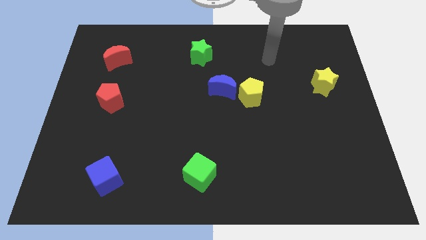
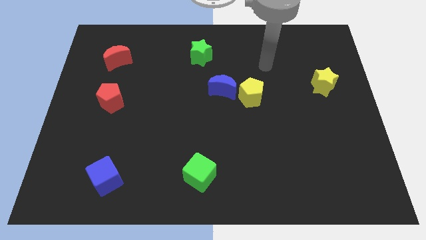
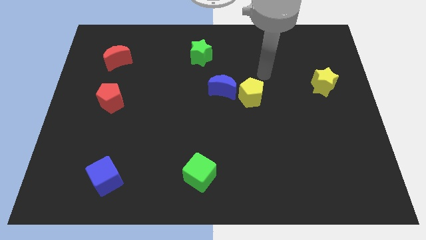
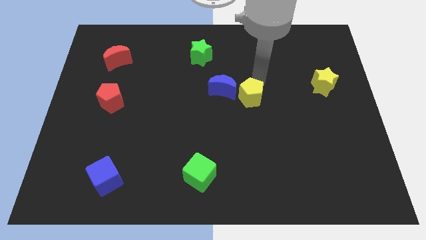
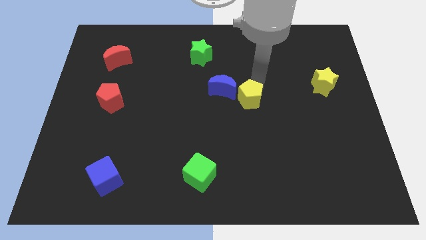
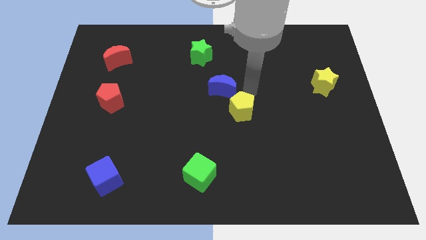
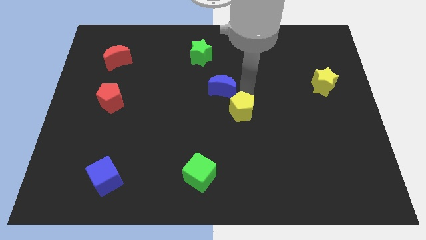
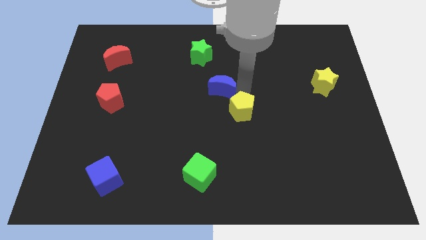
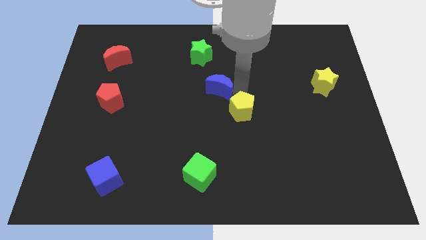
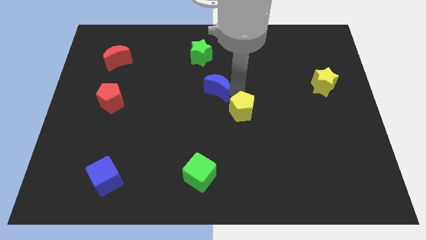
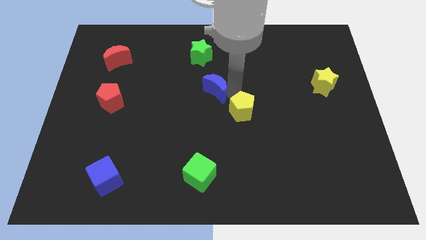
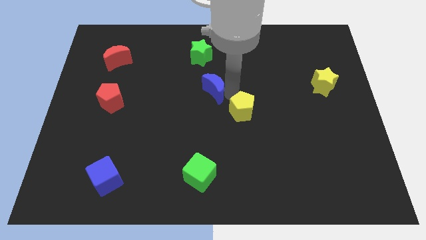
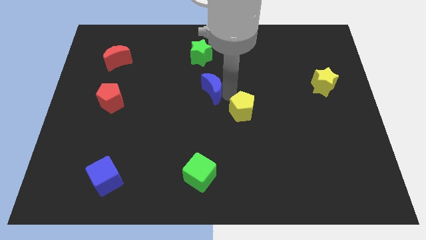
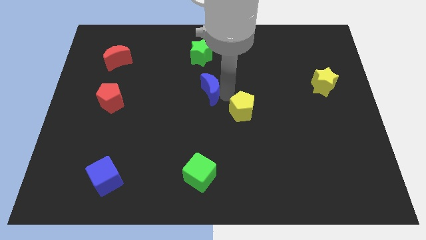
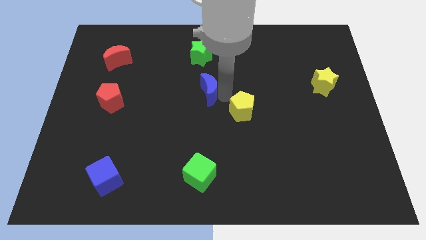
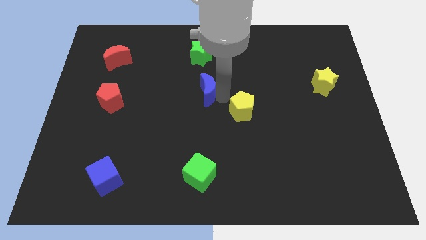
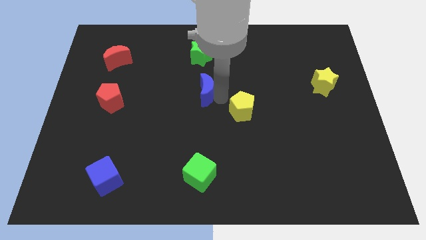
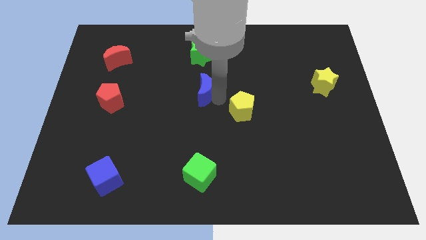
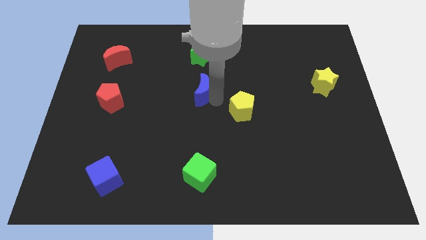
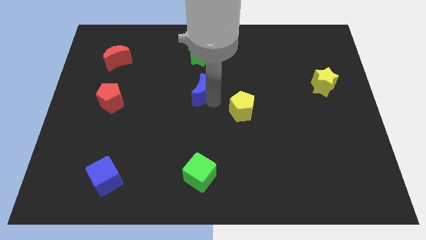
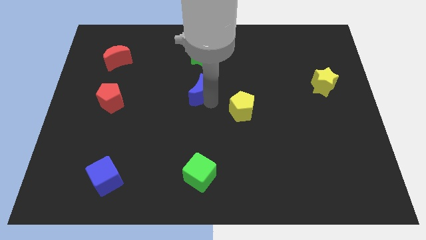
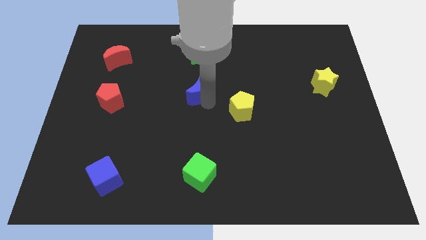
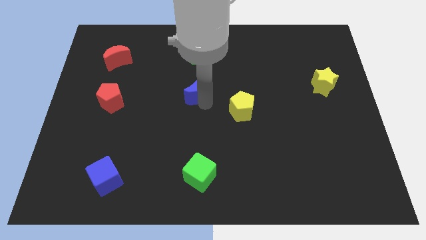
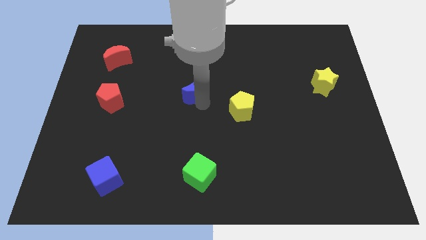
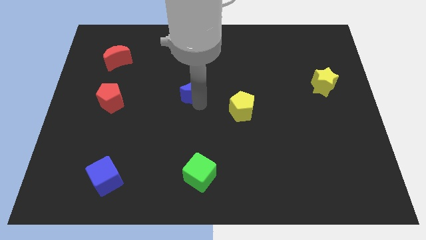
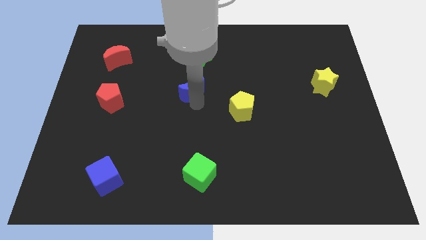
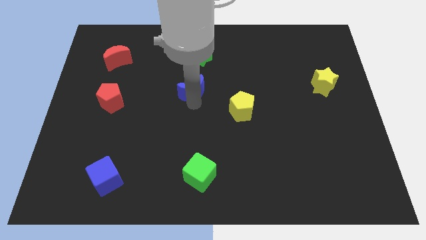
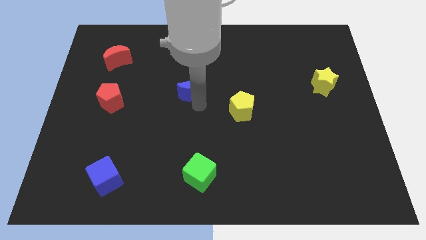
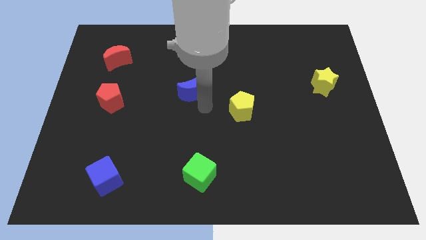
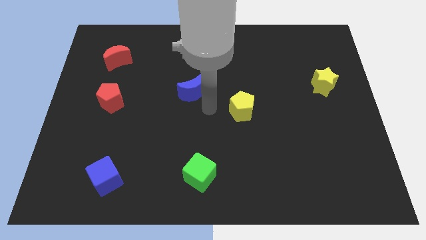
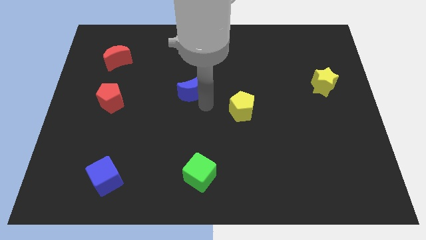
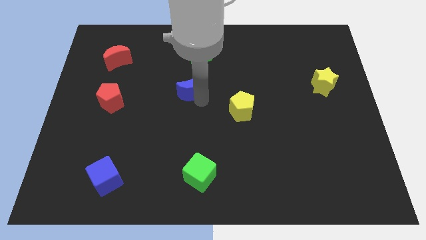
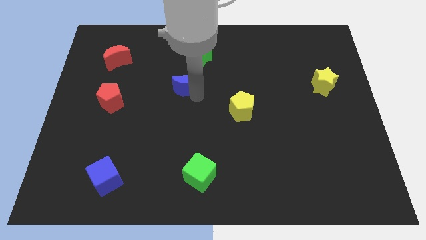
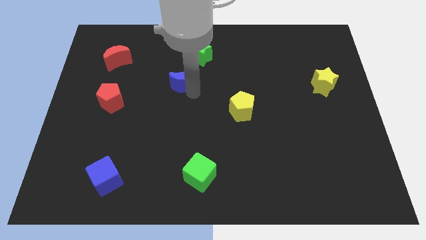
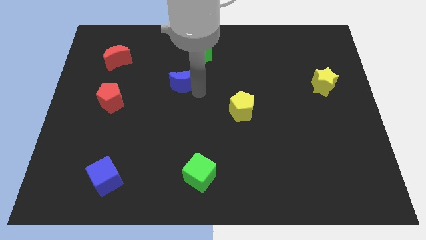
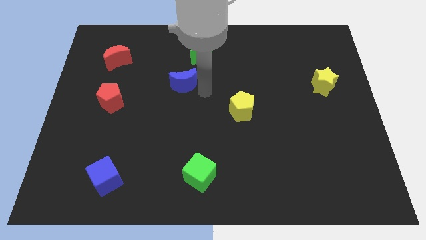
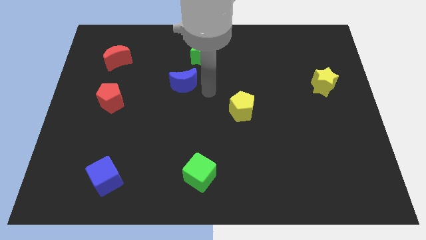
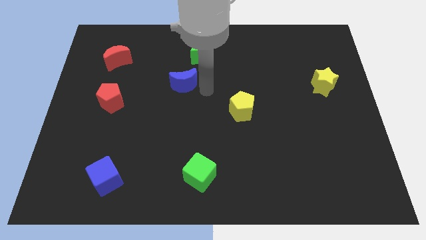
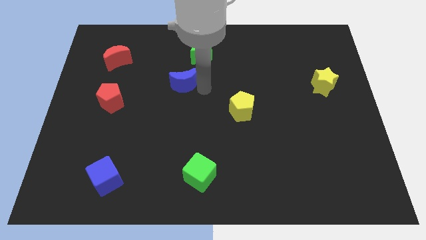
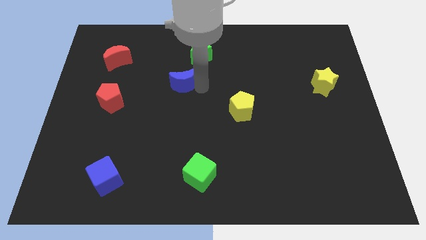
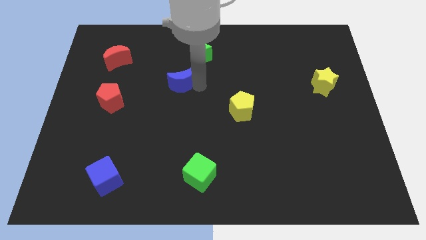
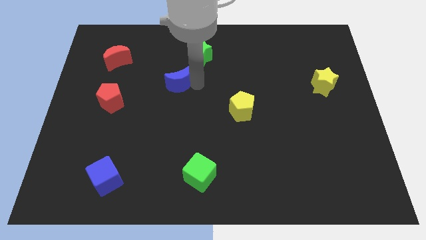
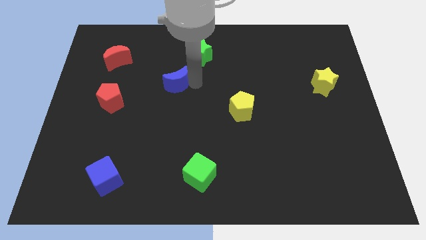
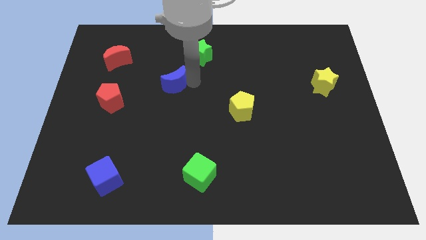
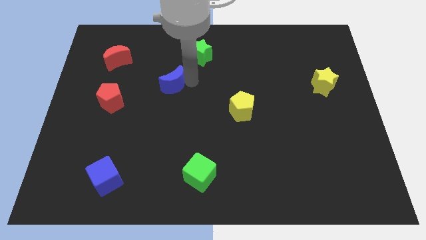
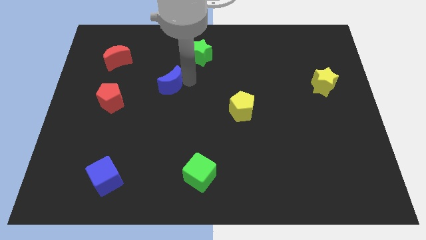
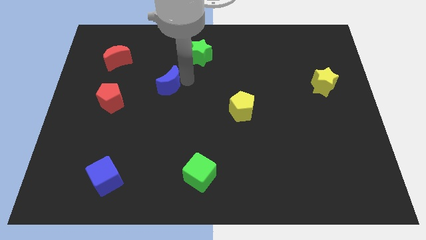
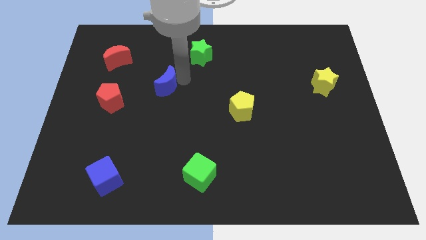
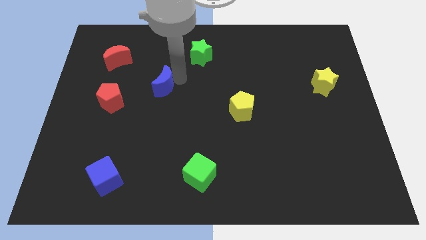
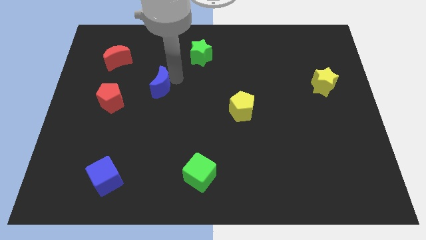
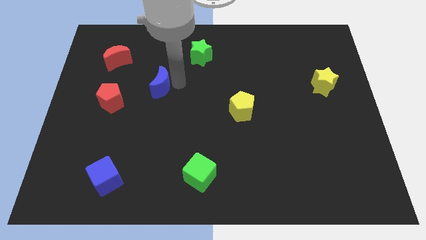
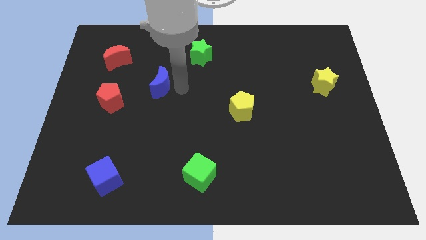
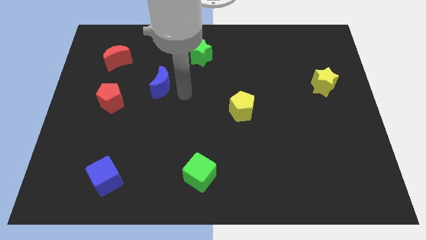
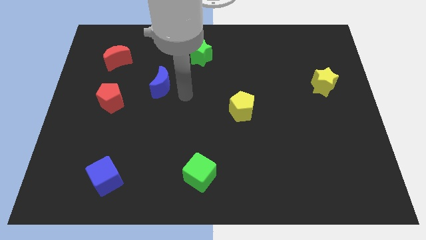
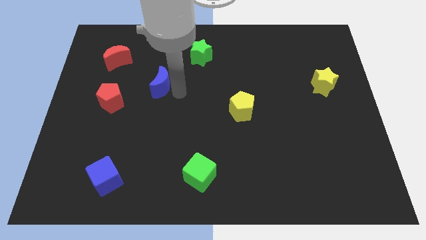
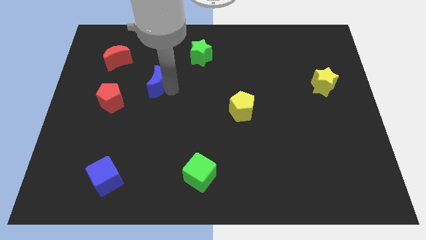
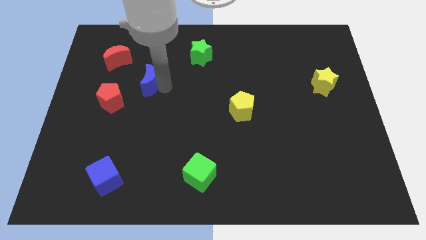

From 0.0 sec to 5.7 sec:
push the blue moon to the bottom right side of the red moon

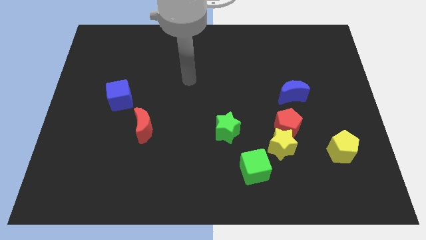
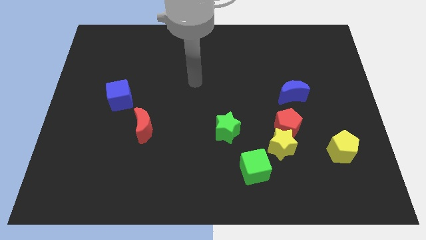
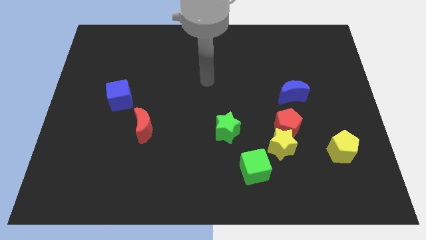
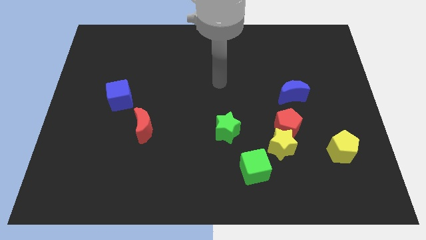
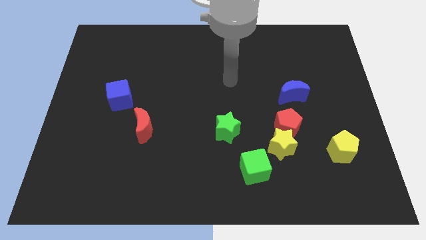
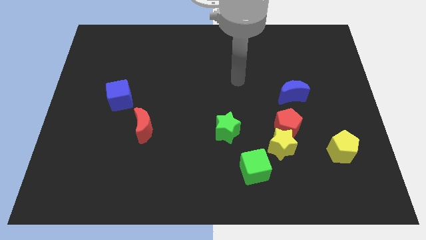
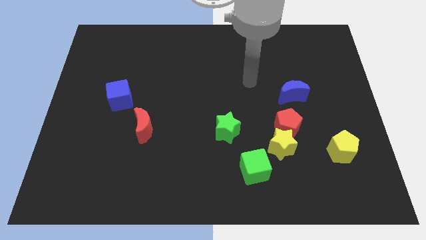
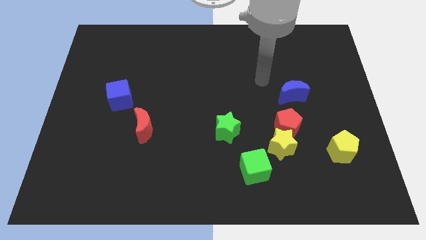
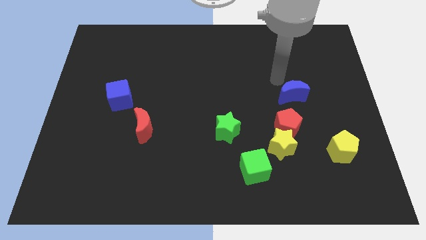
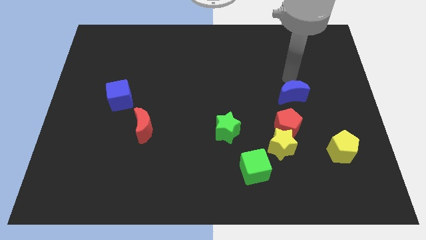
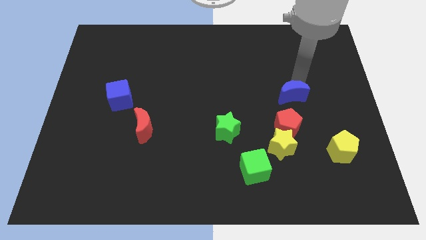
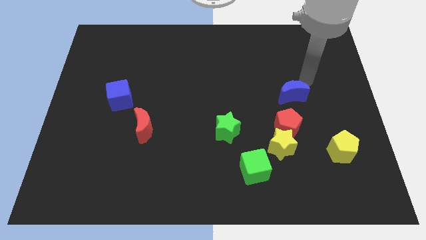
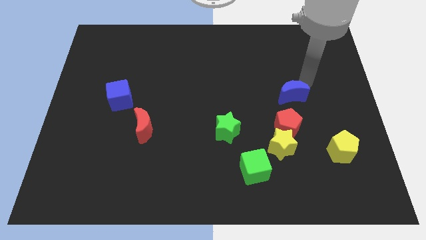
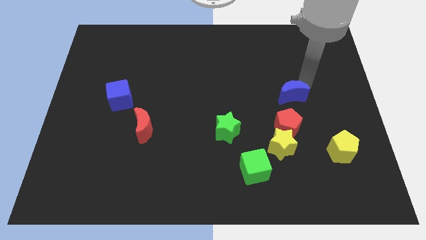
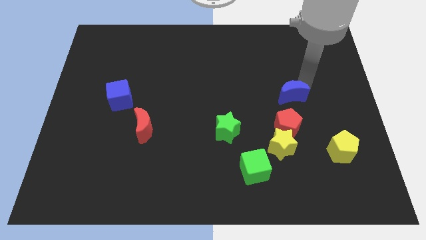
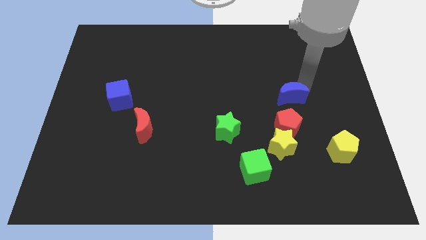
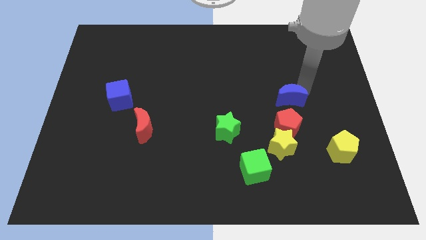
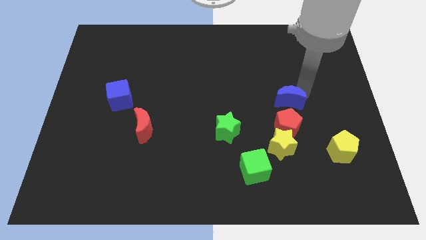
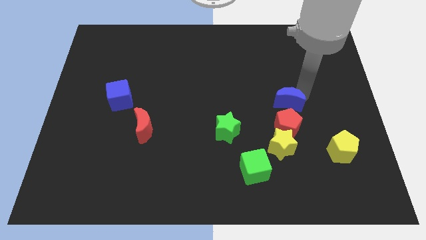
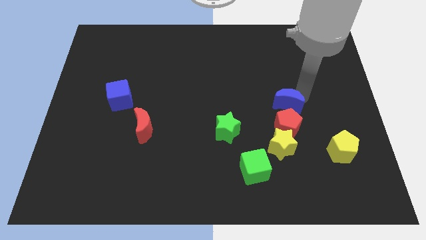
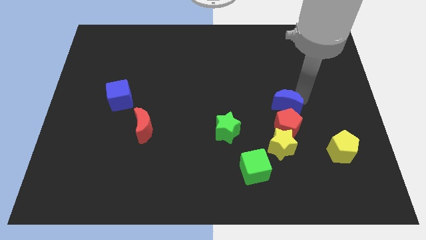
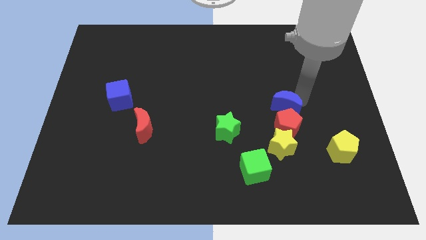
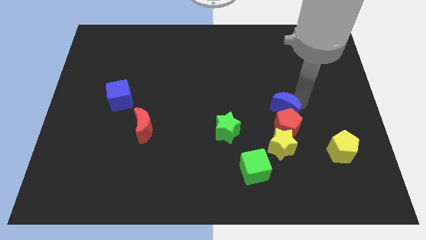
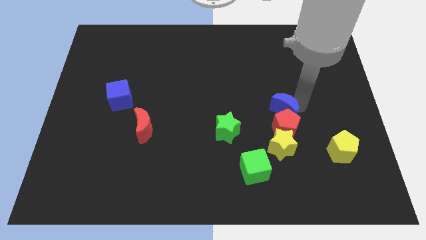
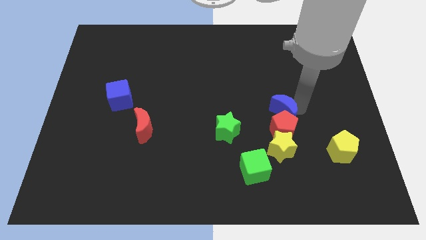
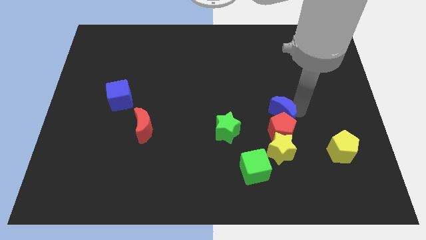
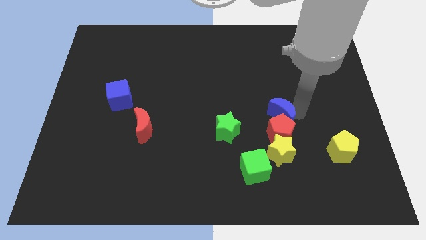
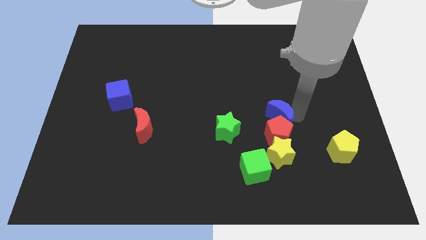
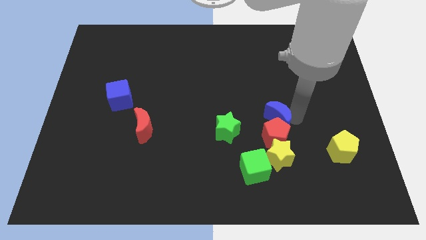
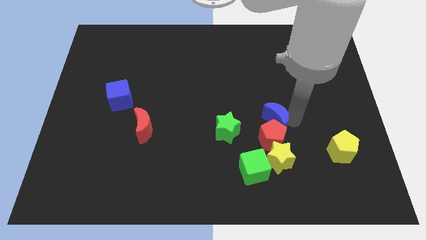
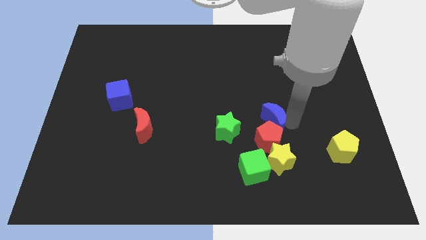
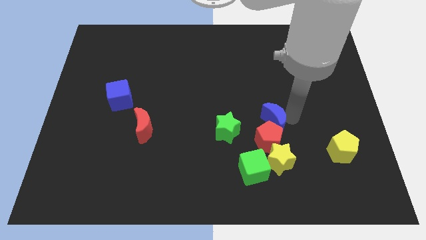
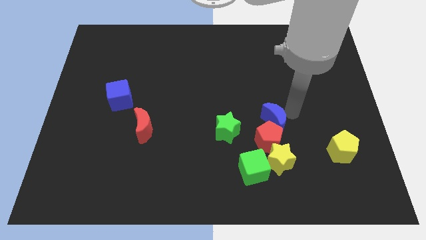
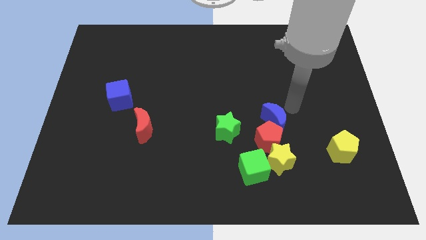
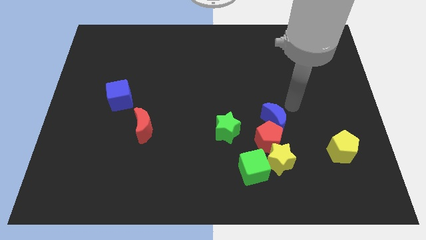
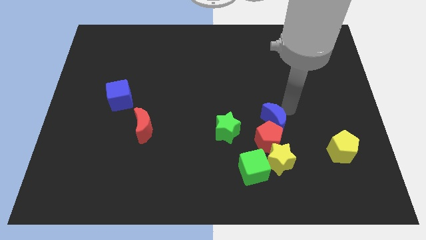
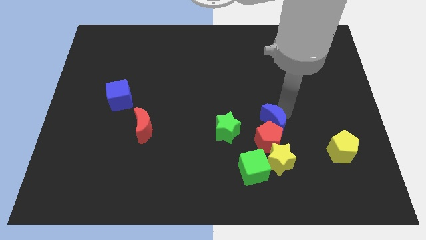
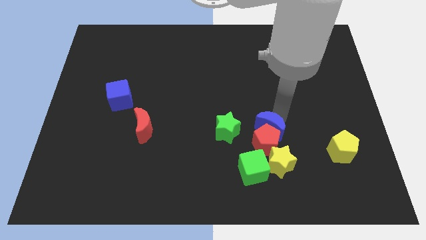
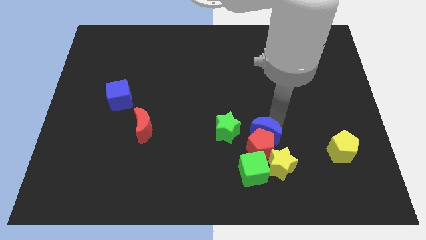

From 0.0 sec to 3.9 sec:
slide the blue moon to the top left side of the yellow star
